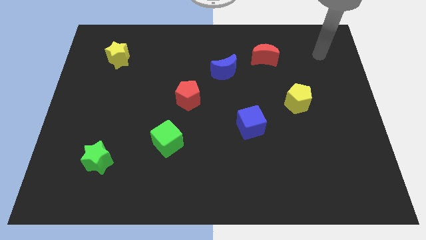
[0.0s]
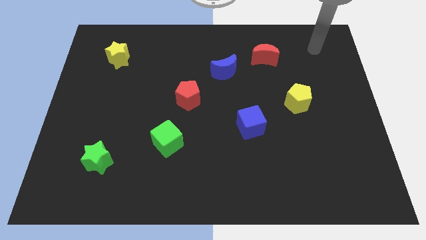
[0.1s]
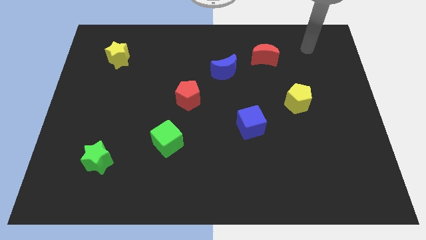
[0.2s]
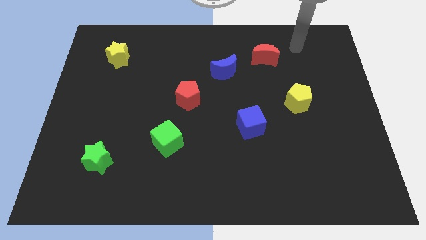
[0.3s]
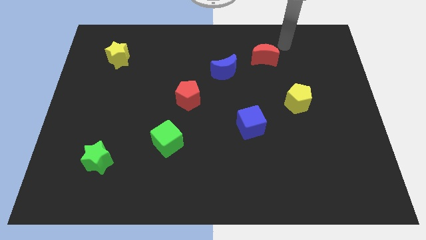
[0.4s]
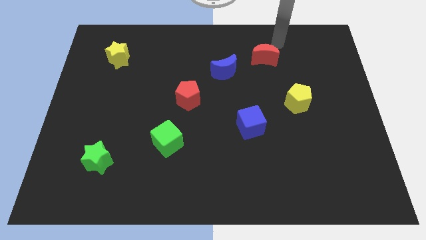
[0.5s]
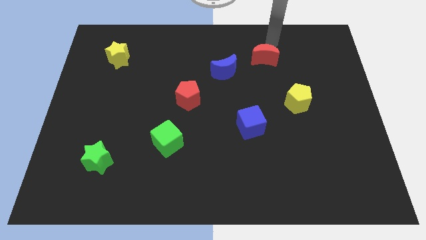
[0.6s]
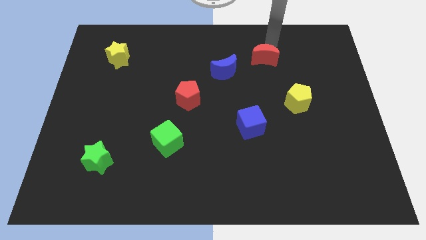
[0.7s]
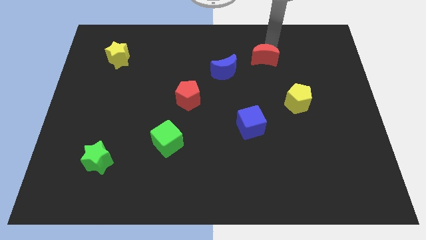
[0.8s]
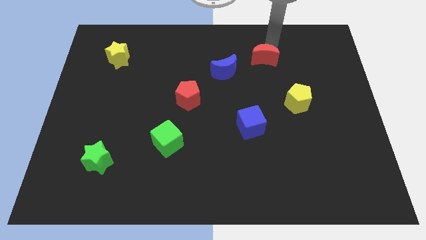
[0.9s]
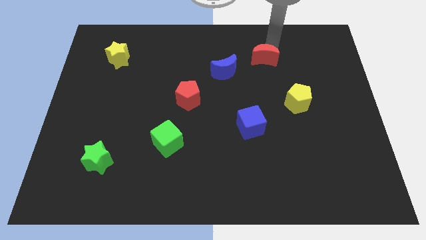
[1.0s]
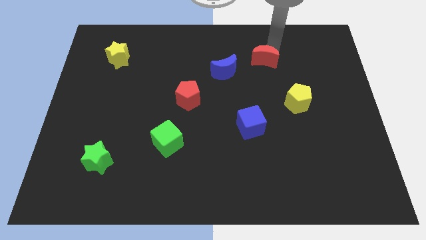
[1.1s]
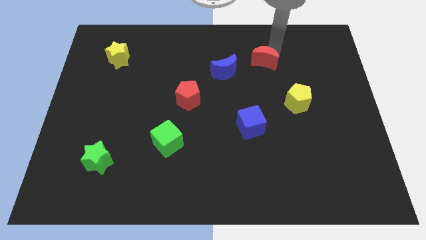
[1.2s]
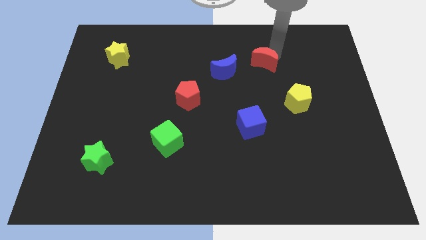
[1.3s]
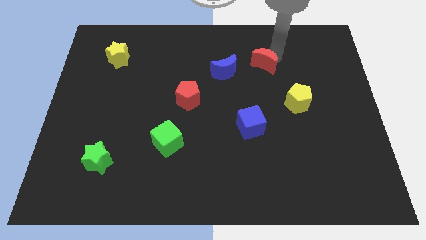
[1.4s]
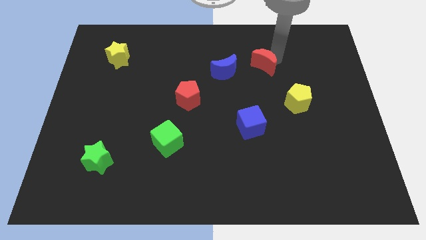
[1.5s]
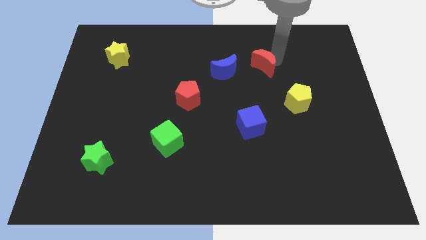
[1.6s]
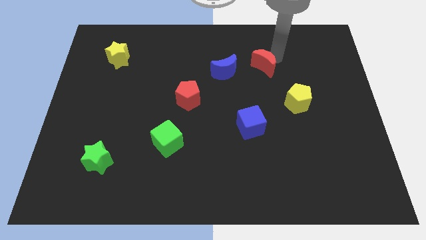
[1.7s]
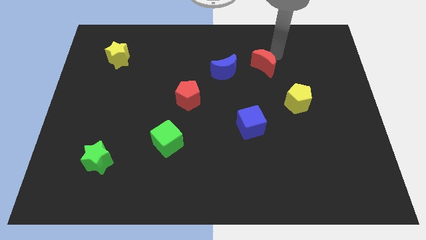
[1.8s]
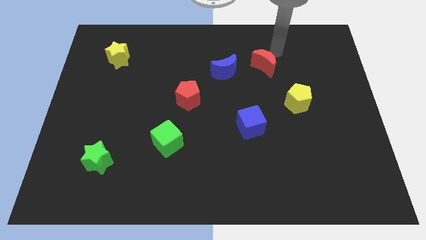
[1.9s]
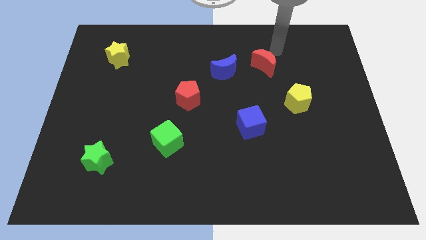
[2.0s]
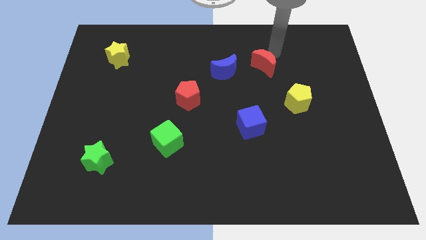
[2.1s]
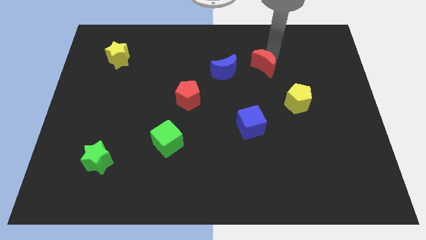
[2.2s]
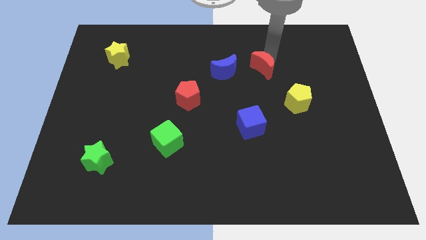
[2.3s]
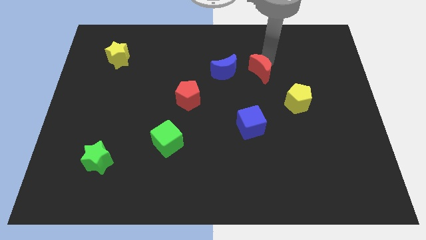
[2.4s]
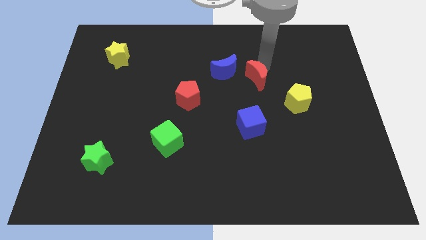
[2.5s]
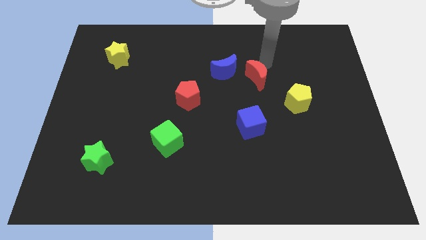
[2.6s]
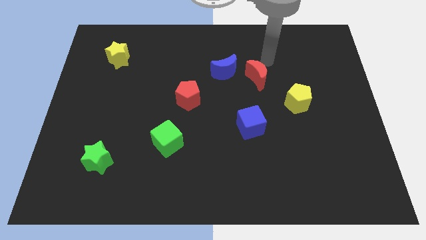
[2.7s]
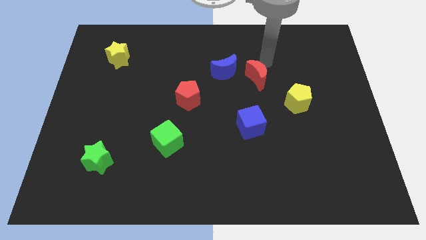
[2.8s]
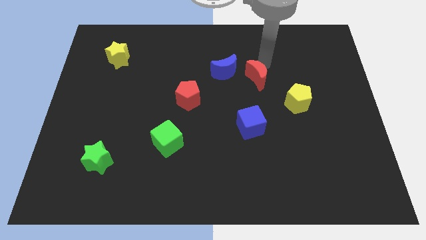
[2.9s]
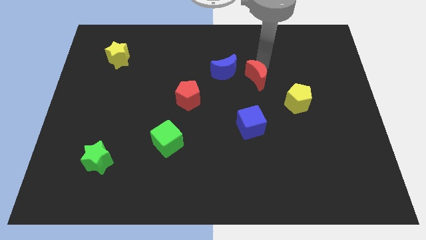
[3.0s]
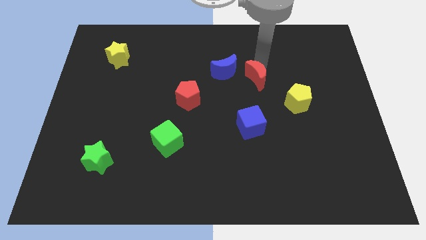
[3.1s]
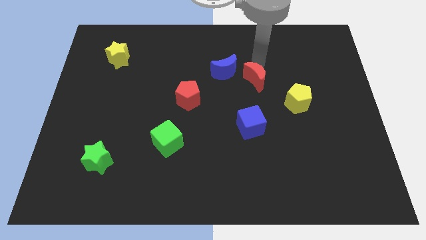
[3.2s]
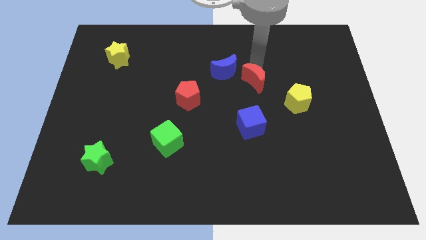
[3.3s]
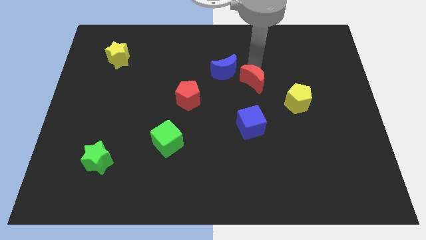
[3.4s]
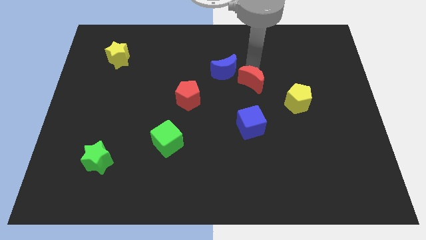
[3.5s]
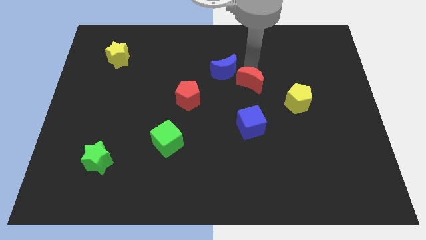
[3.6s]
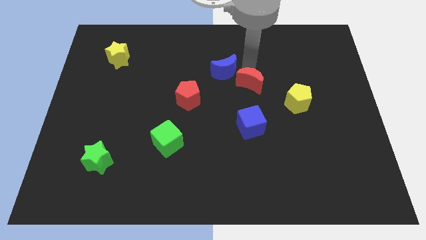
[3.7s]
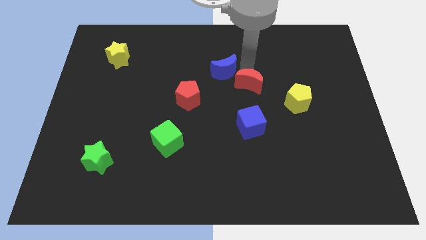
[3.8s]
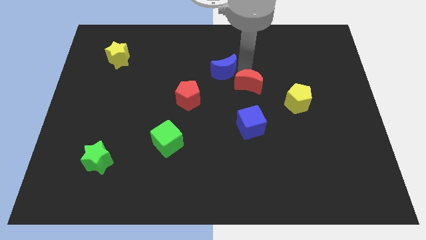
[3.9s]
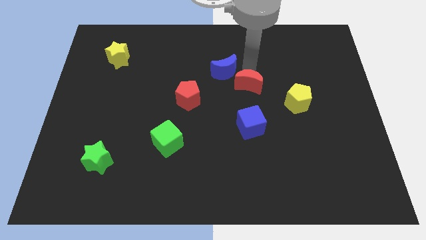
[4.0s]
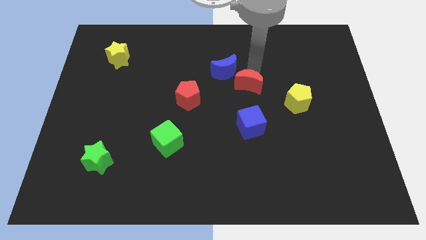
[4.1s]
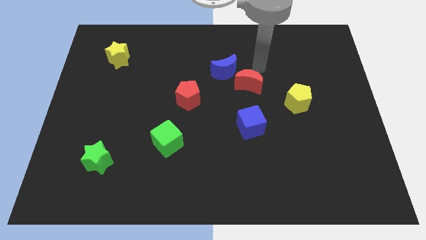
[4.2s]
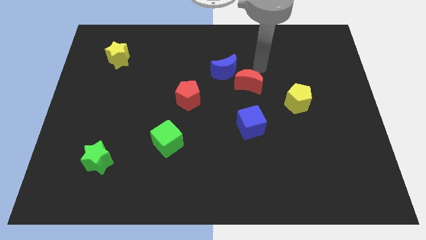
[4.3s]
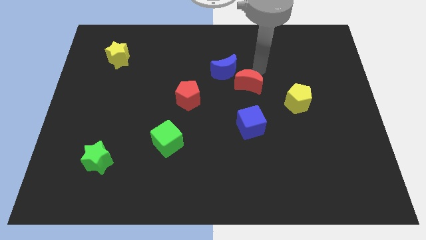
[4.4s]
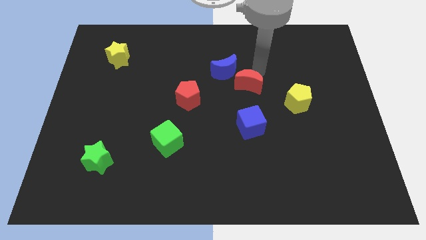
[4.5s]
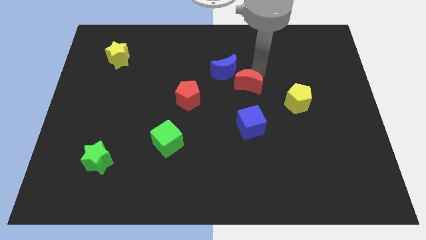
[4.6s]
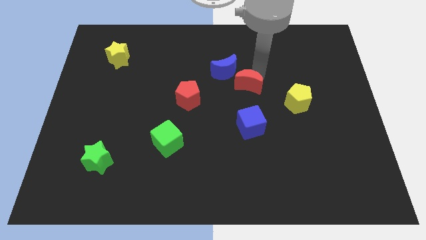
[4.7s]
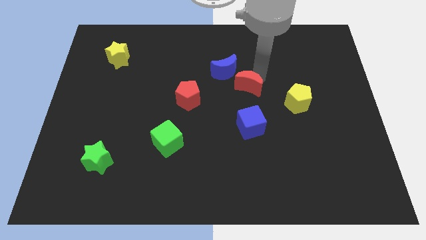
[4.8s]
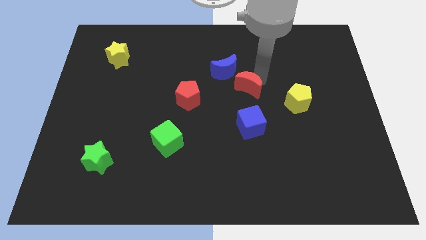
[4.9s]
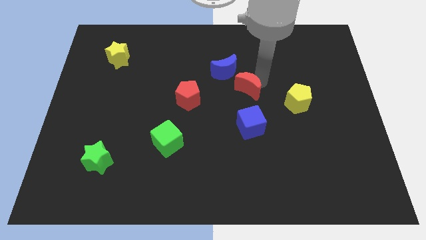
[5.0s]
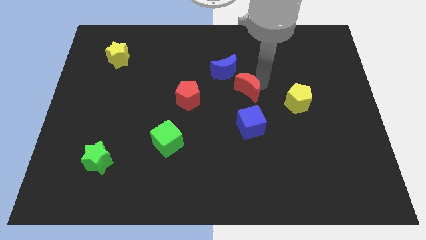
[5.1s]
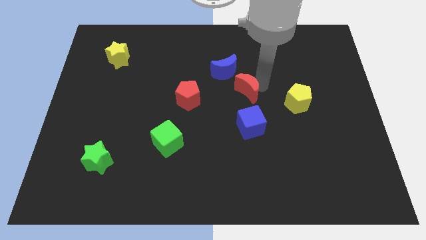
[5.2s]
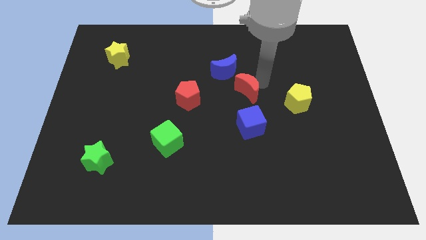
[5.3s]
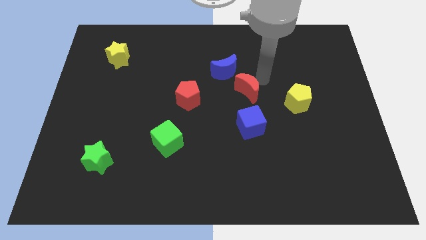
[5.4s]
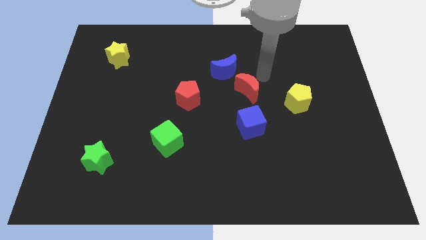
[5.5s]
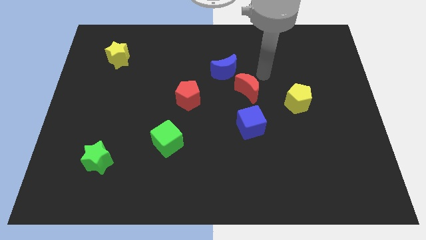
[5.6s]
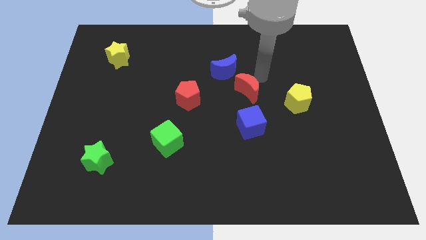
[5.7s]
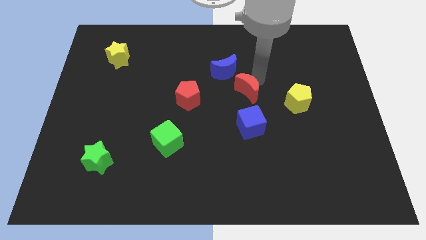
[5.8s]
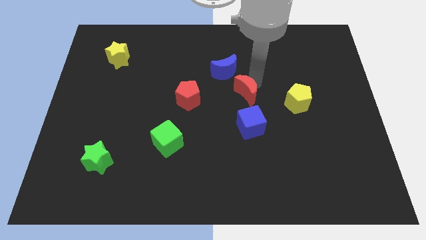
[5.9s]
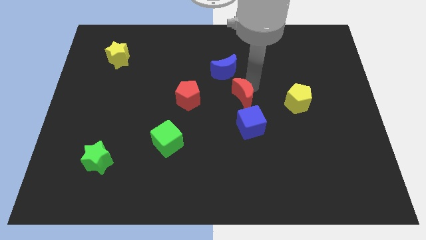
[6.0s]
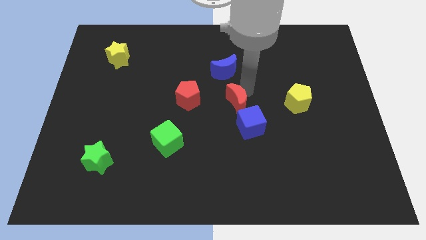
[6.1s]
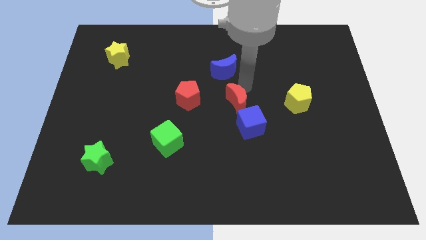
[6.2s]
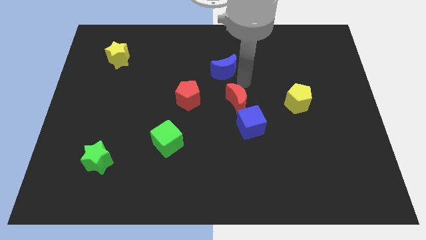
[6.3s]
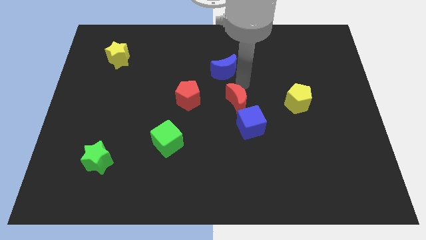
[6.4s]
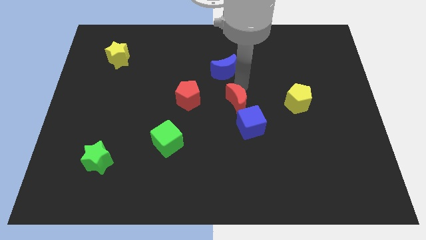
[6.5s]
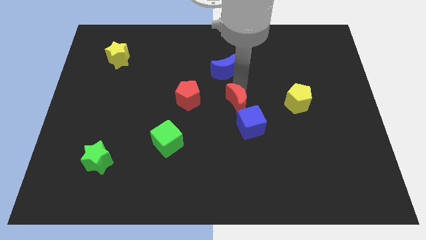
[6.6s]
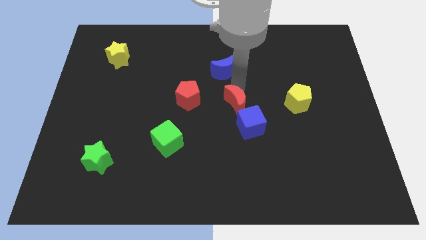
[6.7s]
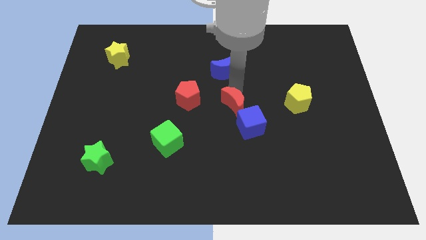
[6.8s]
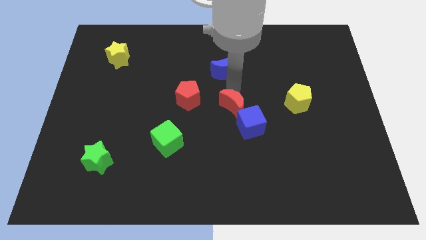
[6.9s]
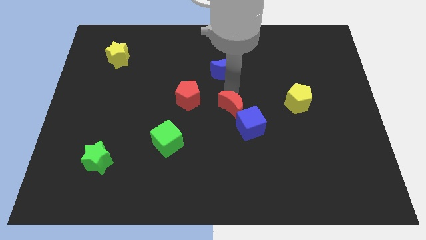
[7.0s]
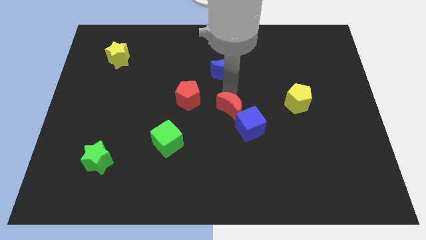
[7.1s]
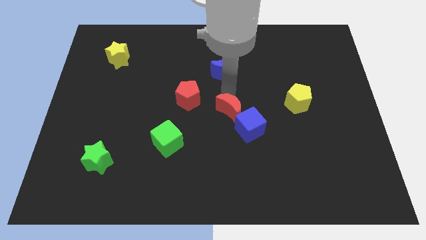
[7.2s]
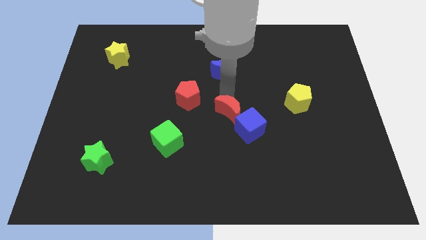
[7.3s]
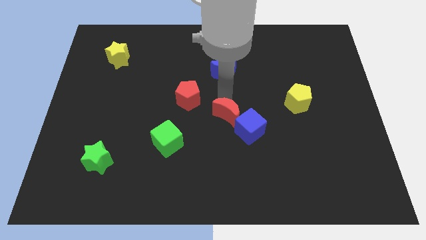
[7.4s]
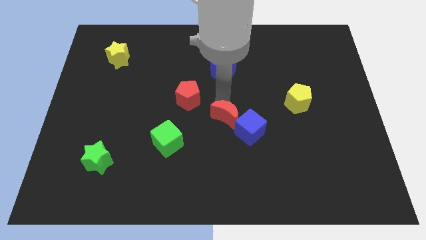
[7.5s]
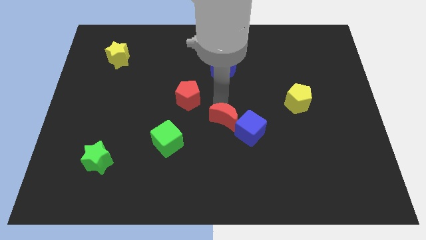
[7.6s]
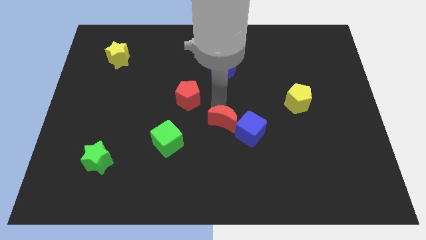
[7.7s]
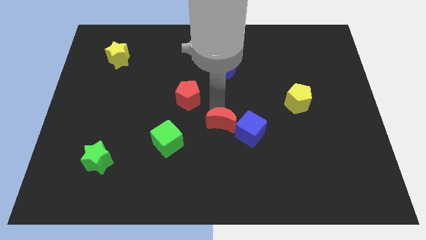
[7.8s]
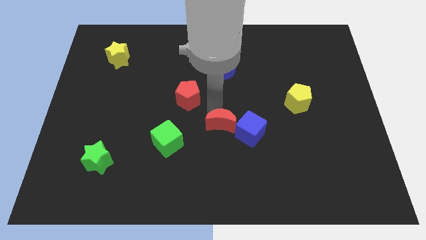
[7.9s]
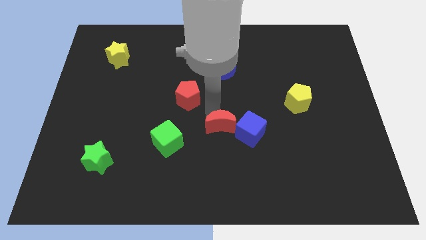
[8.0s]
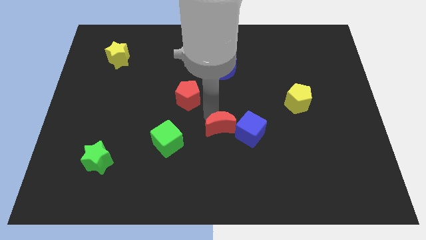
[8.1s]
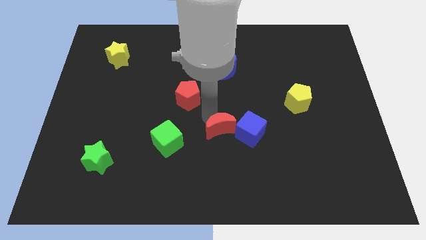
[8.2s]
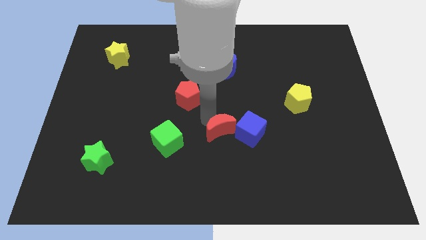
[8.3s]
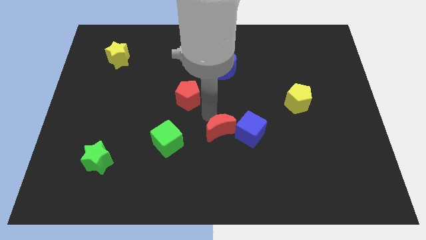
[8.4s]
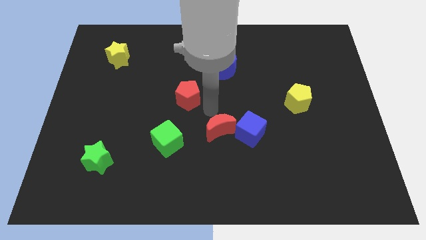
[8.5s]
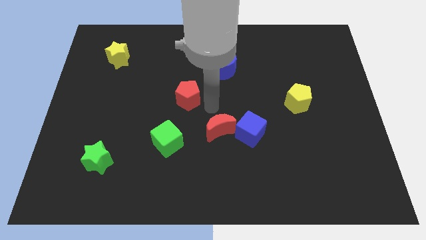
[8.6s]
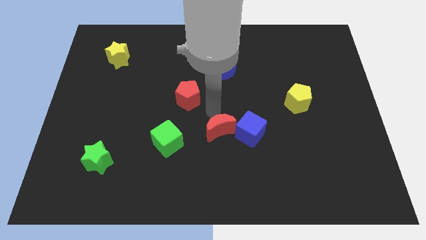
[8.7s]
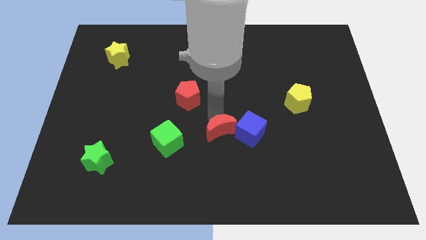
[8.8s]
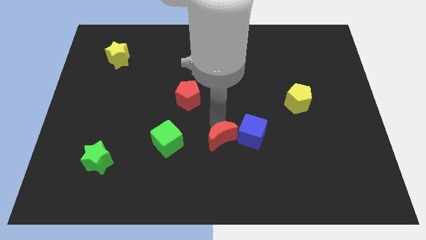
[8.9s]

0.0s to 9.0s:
put the red moon to the bottom left of the blue cube
